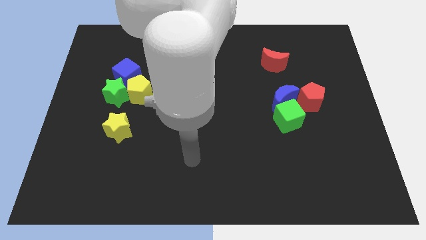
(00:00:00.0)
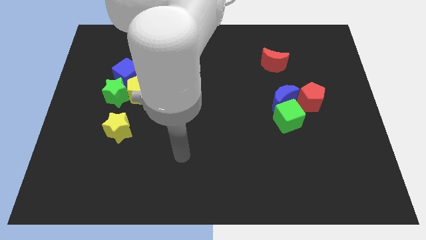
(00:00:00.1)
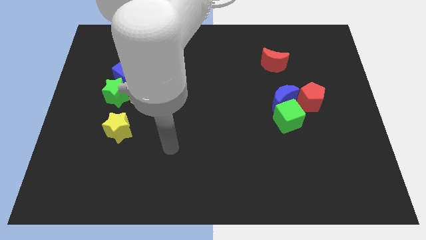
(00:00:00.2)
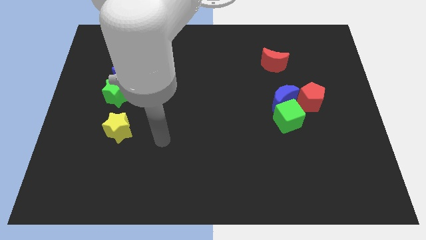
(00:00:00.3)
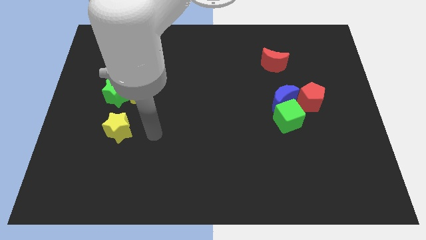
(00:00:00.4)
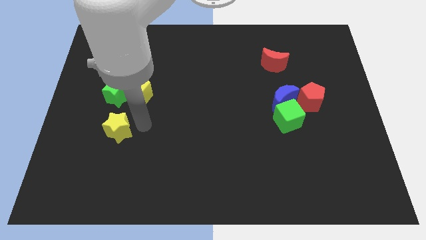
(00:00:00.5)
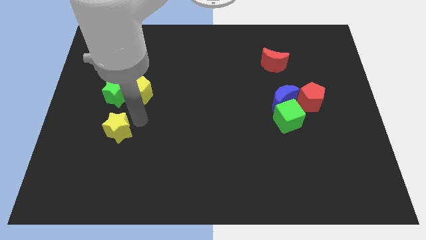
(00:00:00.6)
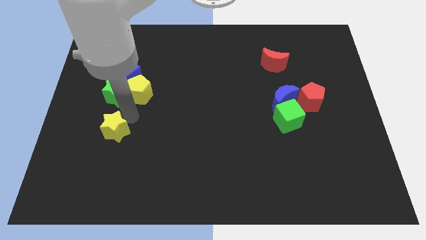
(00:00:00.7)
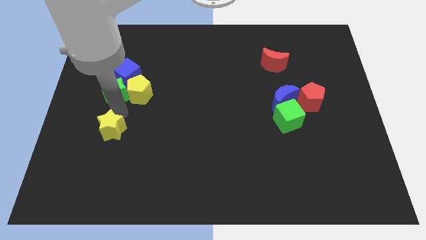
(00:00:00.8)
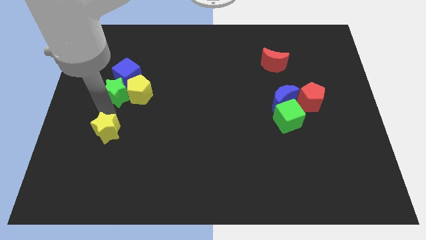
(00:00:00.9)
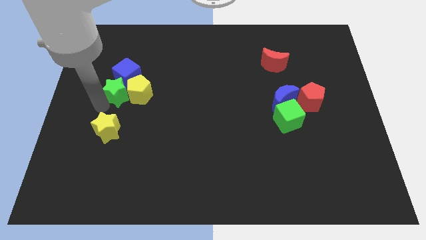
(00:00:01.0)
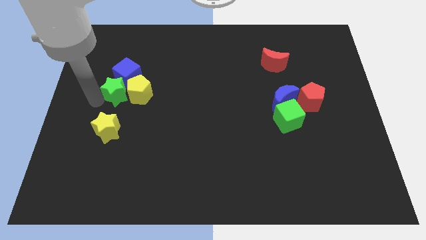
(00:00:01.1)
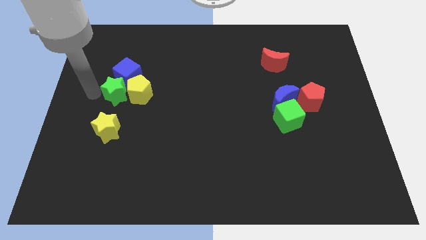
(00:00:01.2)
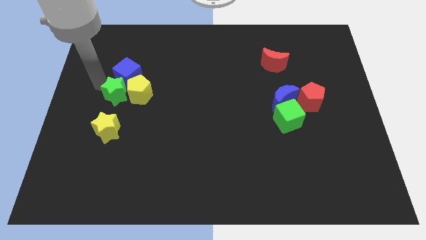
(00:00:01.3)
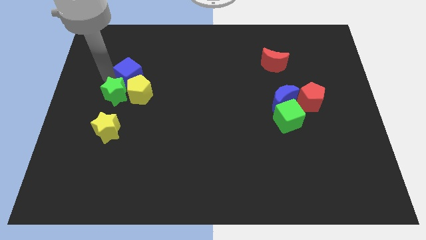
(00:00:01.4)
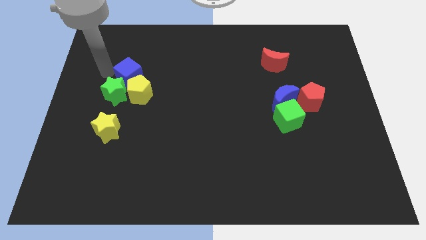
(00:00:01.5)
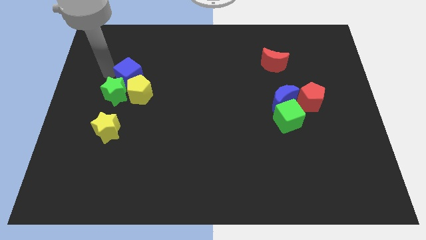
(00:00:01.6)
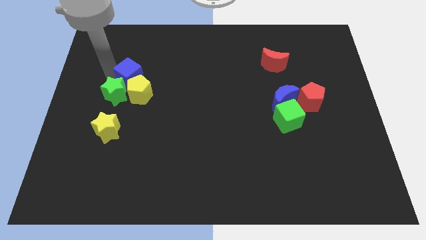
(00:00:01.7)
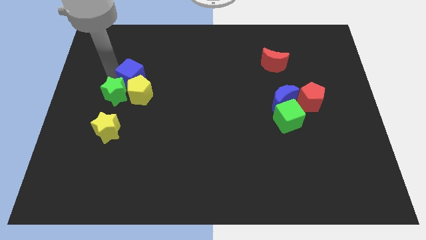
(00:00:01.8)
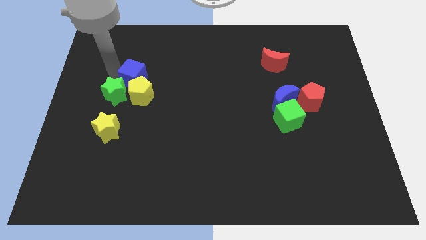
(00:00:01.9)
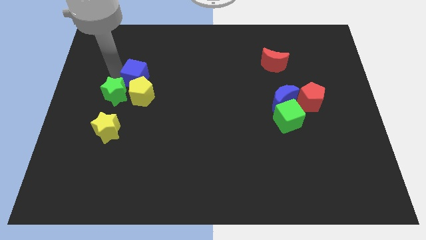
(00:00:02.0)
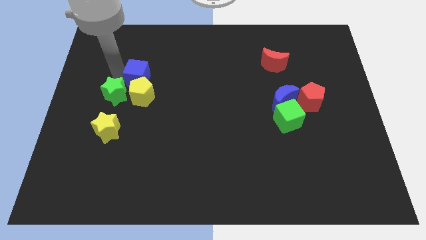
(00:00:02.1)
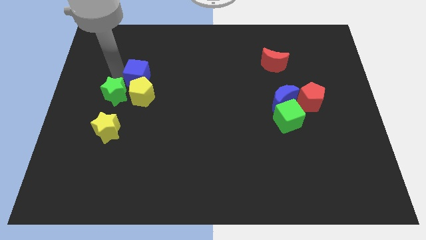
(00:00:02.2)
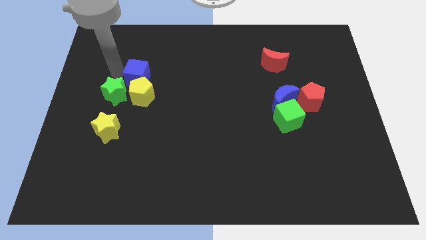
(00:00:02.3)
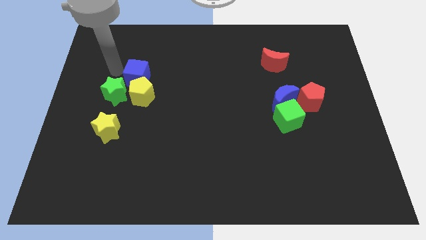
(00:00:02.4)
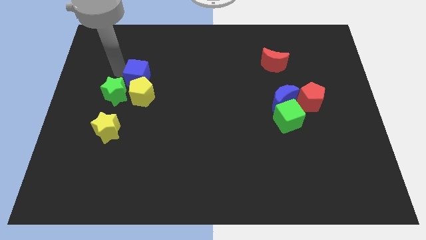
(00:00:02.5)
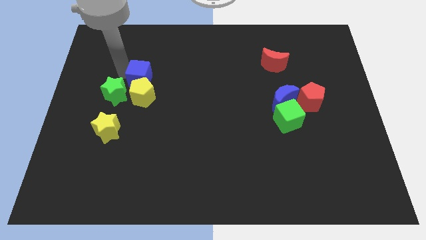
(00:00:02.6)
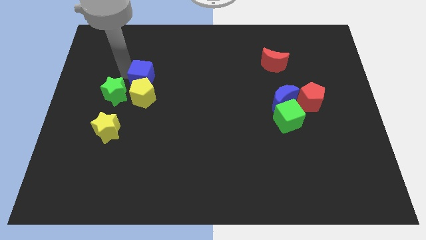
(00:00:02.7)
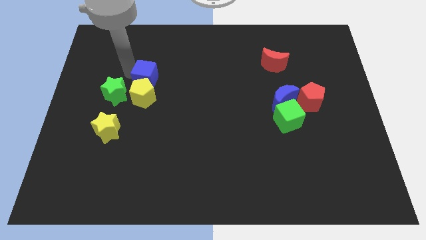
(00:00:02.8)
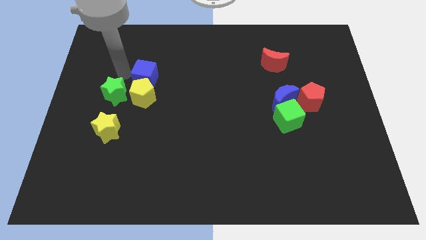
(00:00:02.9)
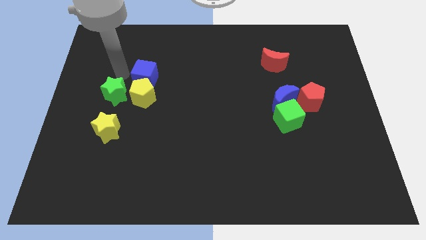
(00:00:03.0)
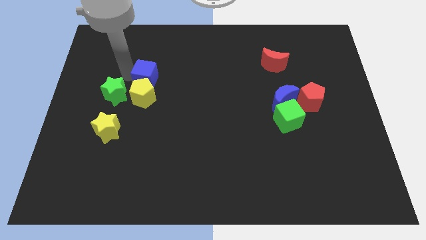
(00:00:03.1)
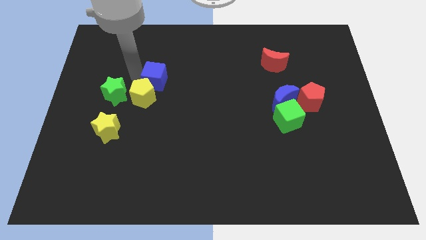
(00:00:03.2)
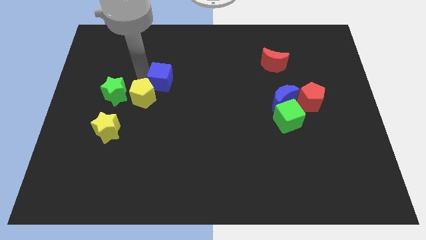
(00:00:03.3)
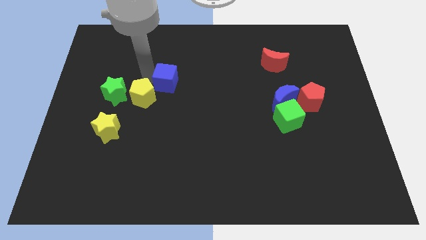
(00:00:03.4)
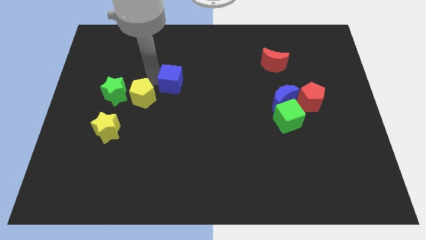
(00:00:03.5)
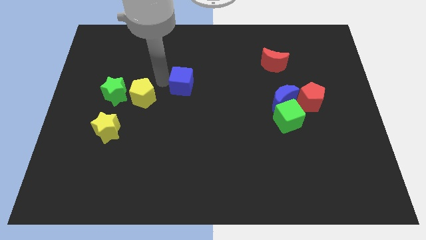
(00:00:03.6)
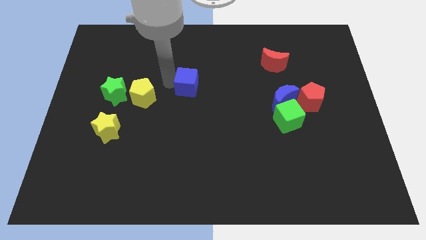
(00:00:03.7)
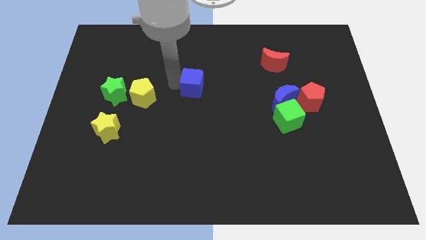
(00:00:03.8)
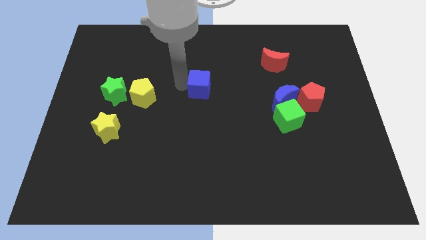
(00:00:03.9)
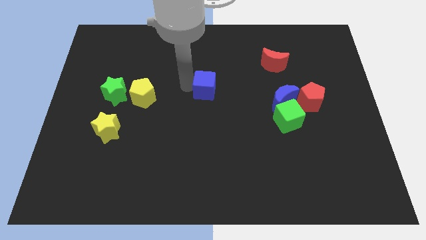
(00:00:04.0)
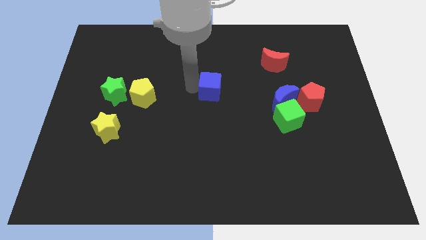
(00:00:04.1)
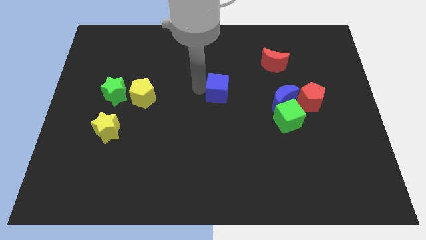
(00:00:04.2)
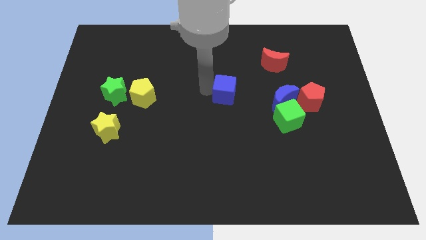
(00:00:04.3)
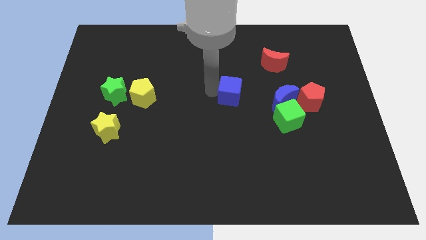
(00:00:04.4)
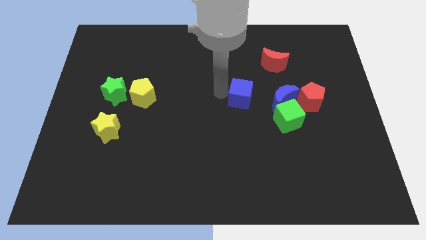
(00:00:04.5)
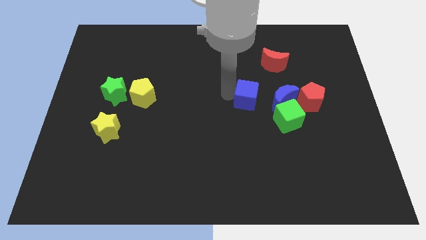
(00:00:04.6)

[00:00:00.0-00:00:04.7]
slide the blue cube left of the red pentagon

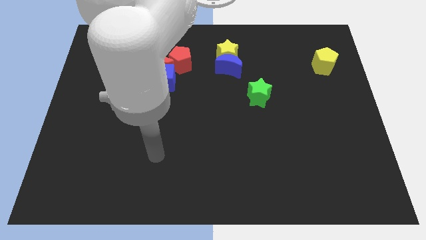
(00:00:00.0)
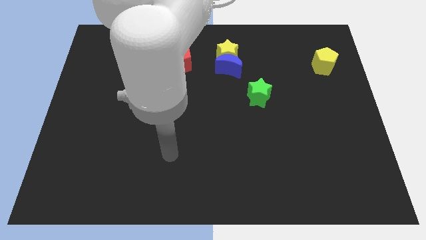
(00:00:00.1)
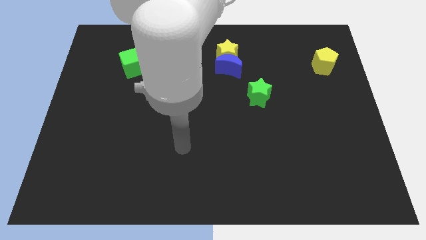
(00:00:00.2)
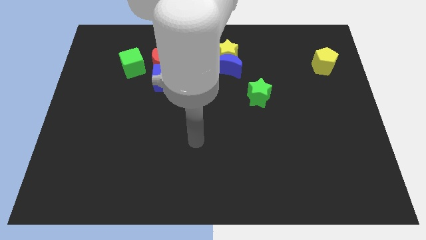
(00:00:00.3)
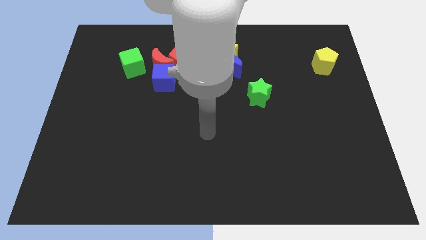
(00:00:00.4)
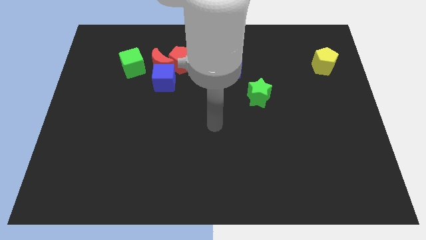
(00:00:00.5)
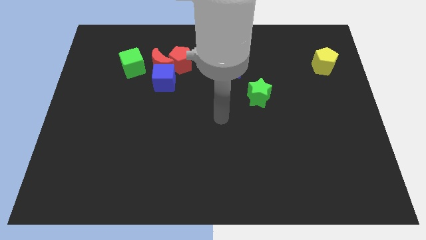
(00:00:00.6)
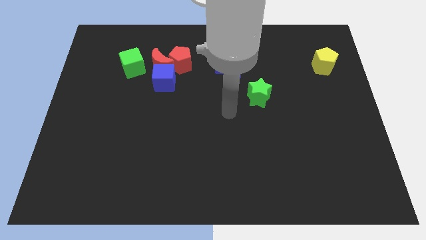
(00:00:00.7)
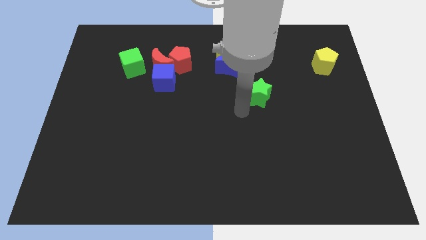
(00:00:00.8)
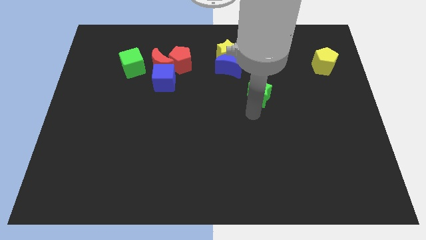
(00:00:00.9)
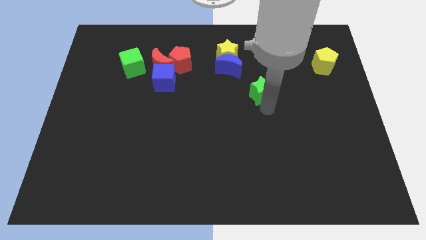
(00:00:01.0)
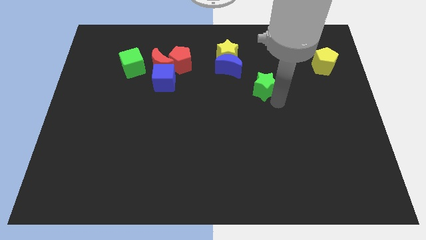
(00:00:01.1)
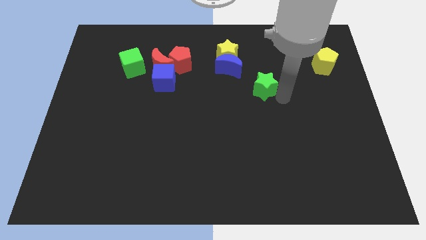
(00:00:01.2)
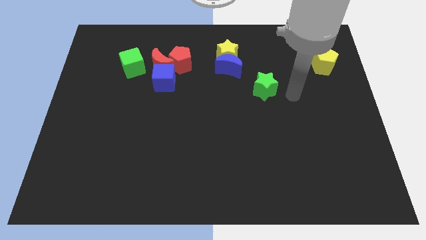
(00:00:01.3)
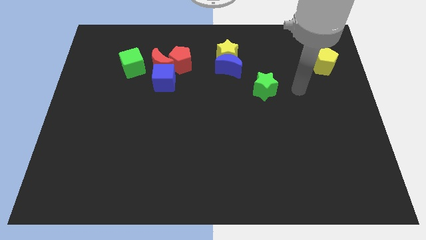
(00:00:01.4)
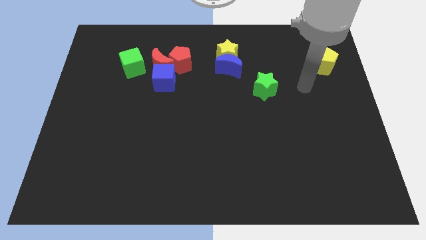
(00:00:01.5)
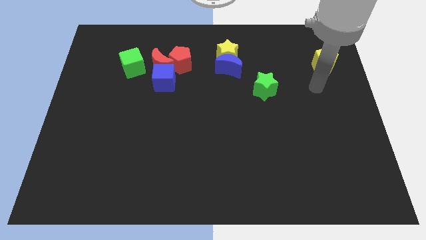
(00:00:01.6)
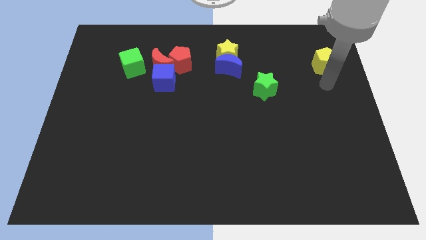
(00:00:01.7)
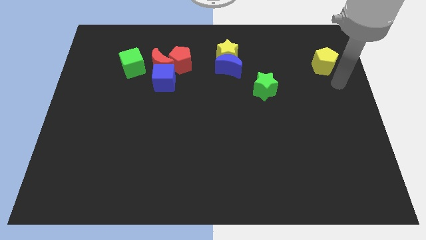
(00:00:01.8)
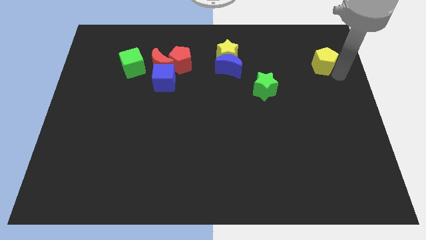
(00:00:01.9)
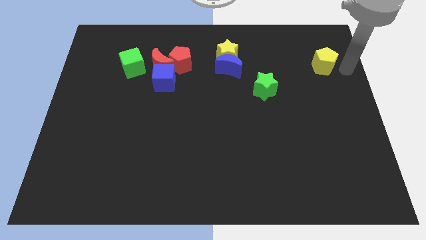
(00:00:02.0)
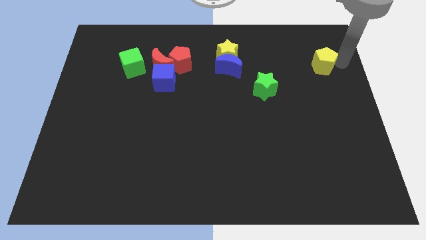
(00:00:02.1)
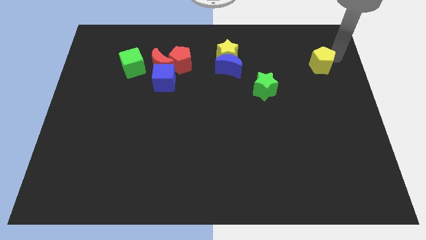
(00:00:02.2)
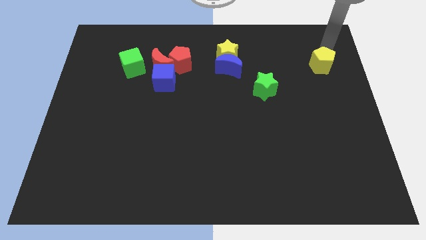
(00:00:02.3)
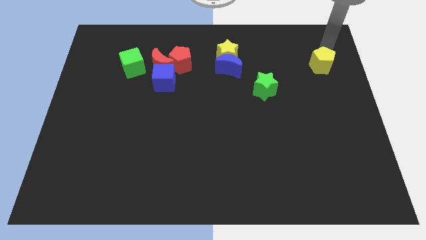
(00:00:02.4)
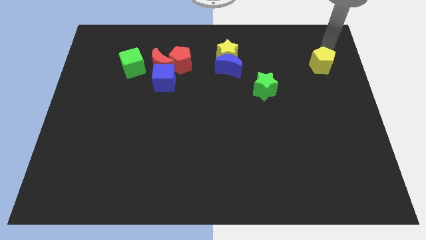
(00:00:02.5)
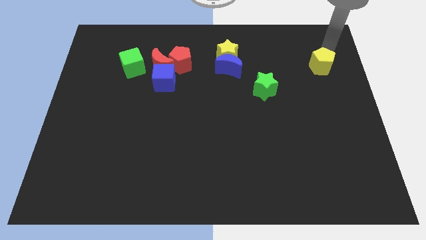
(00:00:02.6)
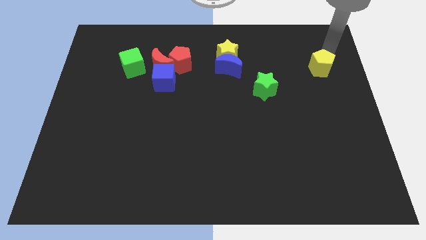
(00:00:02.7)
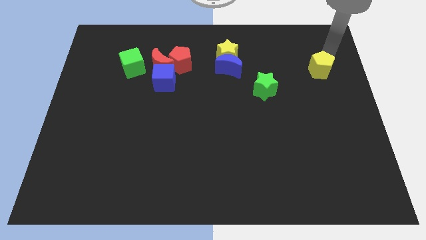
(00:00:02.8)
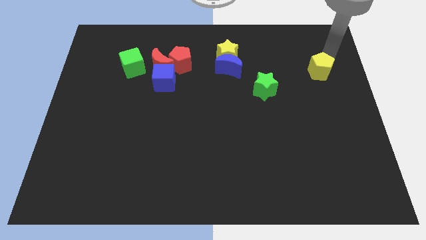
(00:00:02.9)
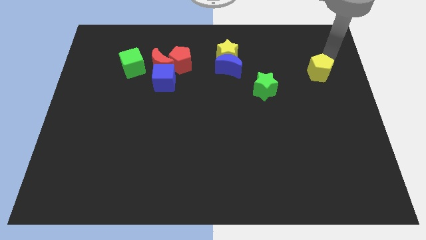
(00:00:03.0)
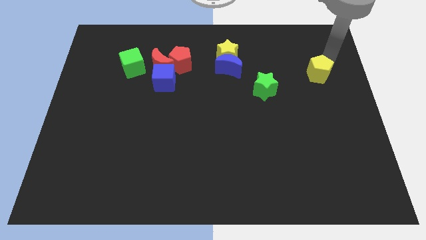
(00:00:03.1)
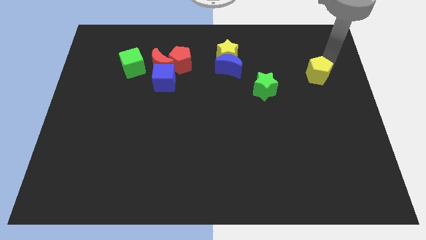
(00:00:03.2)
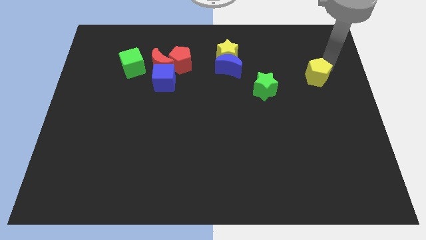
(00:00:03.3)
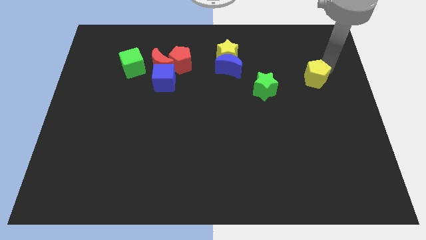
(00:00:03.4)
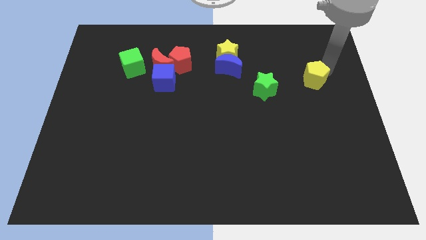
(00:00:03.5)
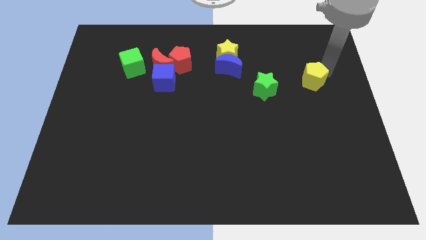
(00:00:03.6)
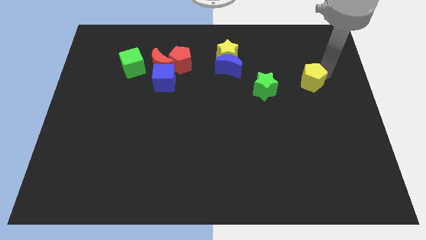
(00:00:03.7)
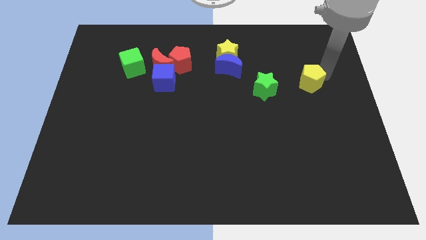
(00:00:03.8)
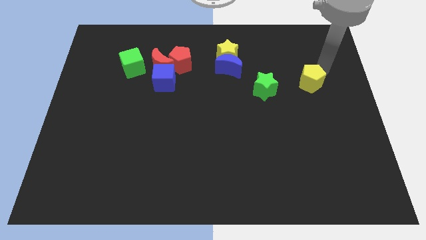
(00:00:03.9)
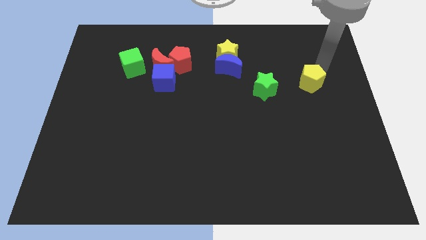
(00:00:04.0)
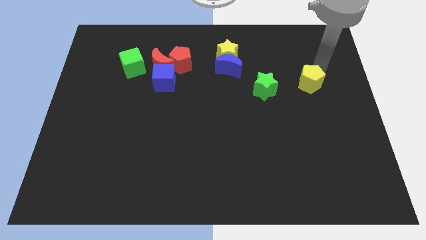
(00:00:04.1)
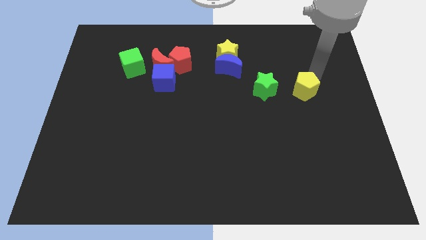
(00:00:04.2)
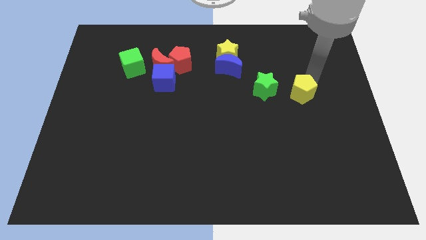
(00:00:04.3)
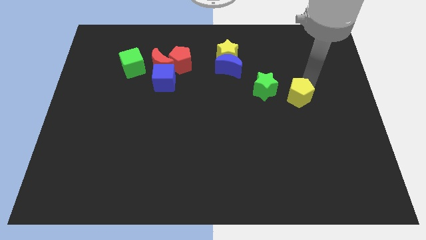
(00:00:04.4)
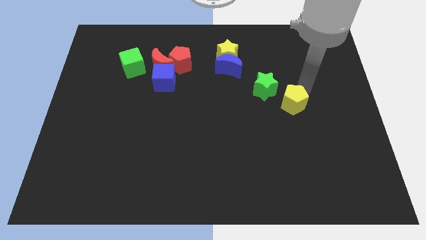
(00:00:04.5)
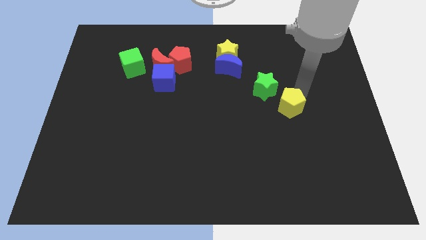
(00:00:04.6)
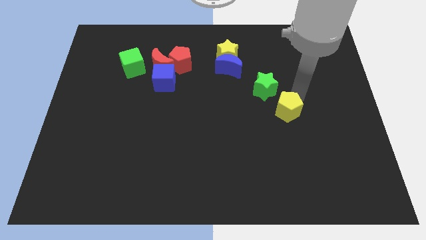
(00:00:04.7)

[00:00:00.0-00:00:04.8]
move the yellow pentagon to the bottom of the green star
